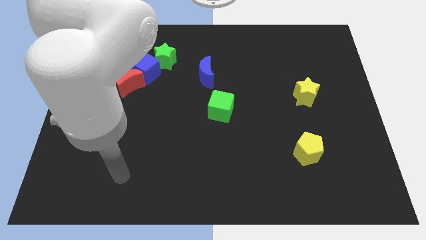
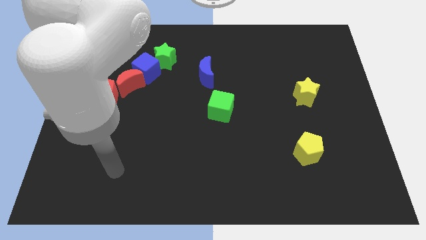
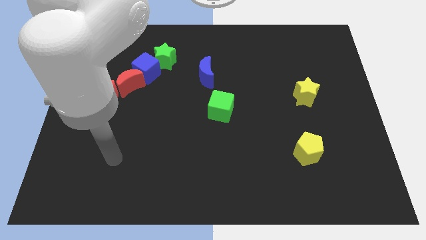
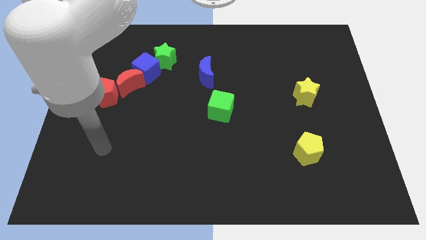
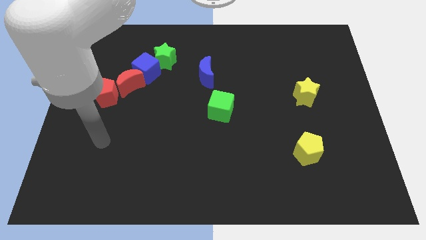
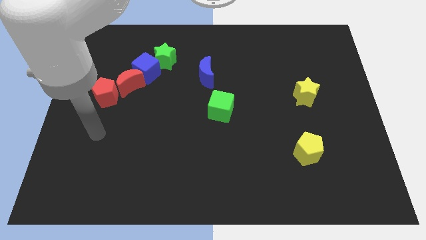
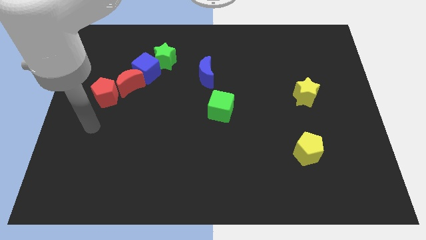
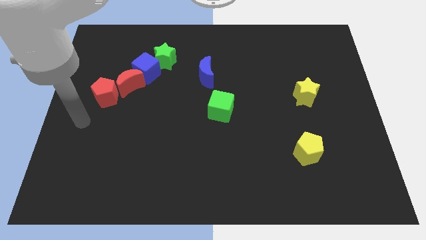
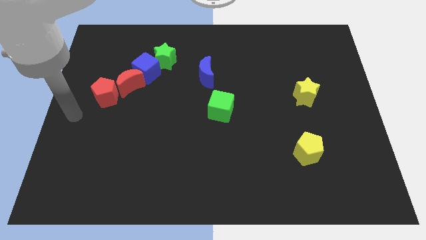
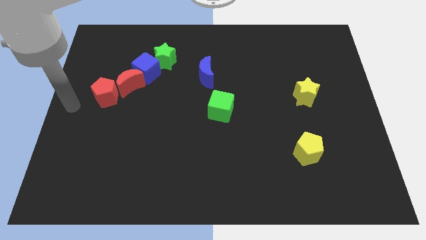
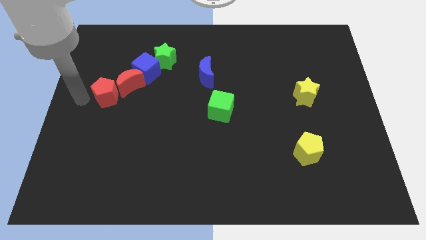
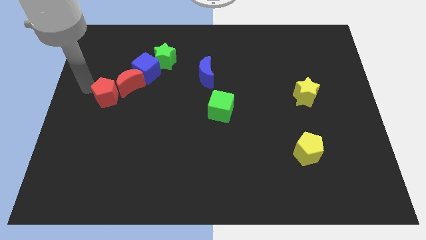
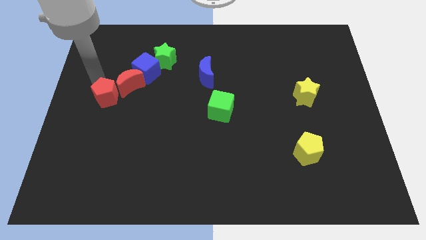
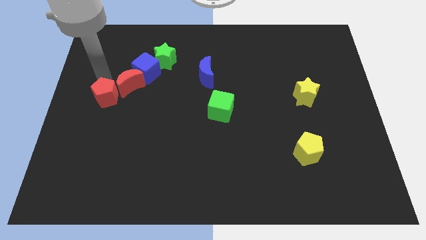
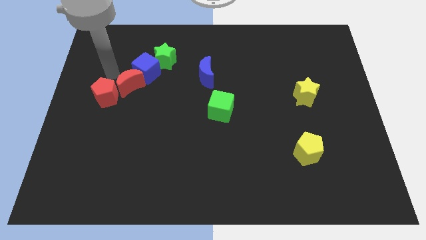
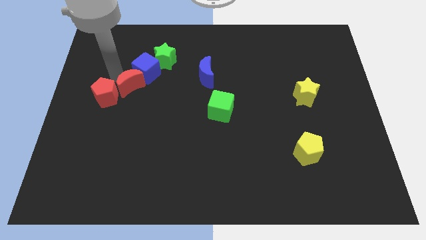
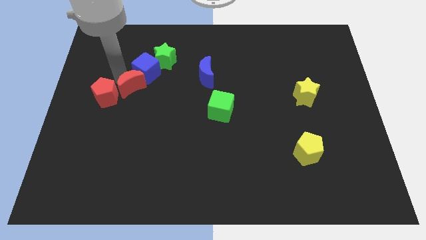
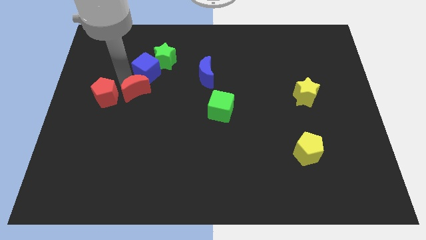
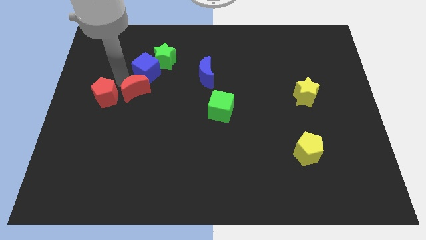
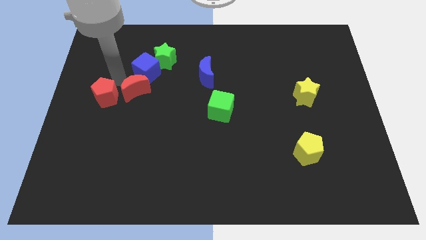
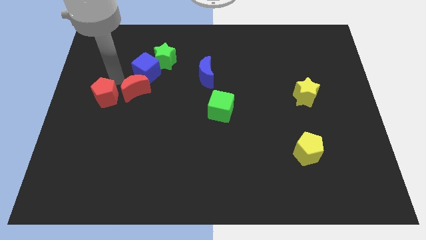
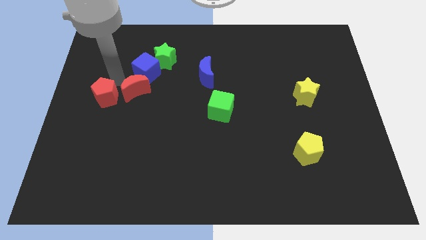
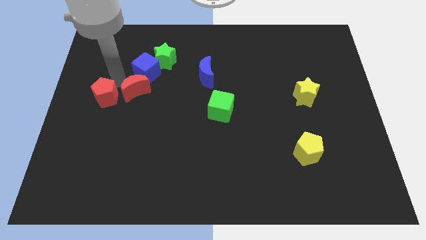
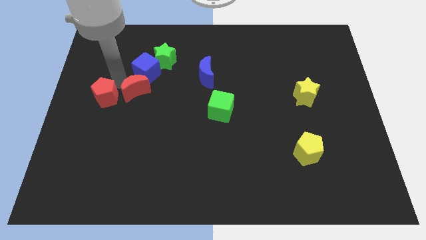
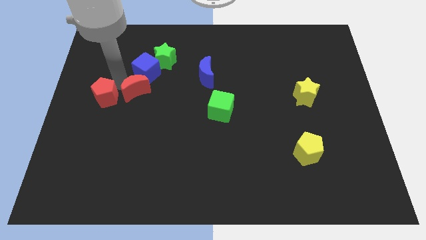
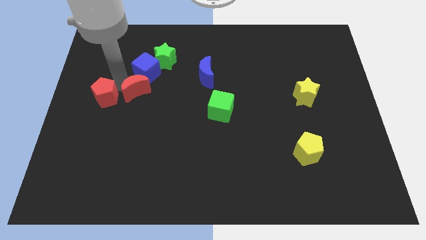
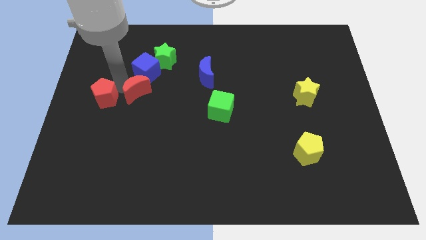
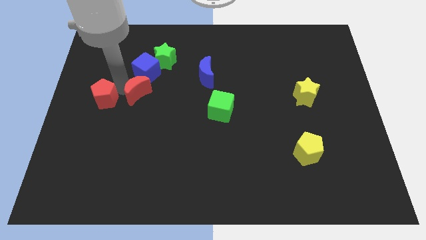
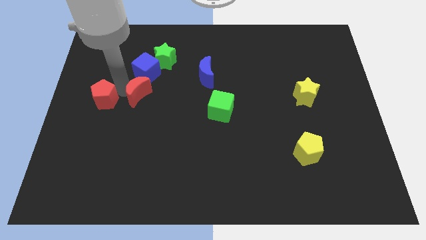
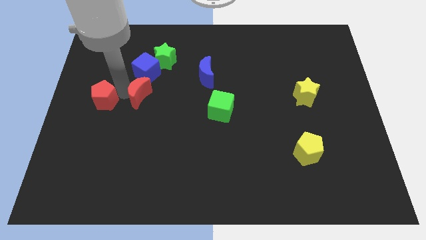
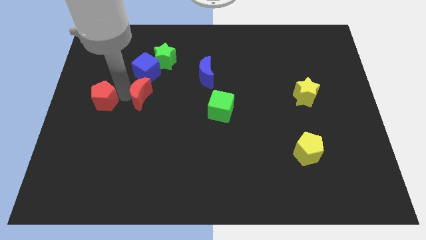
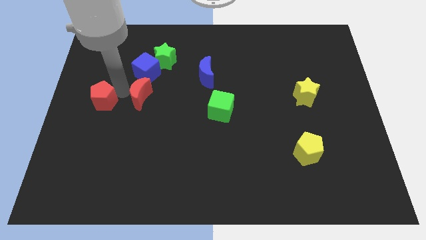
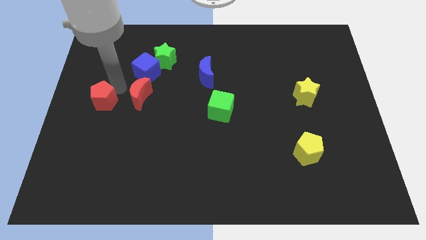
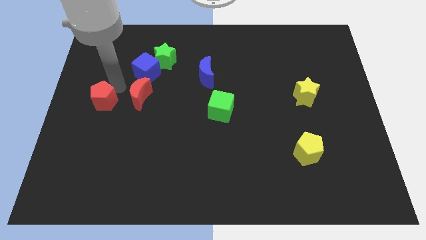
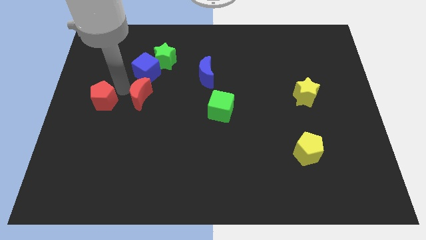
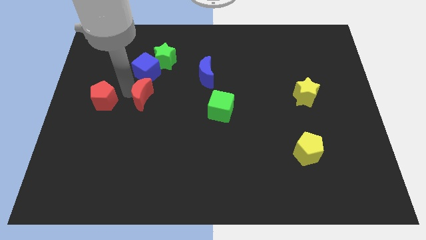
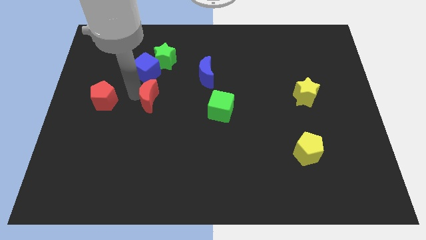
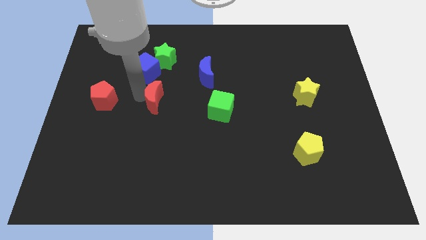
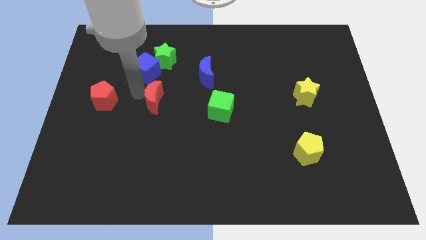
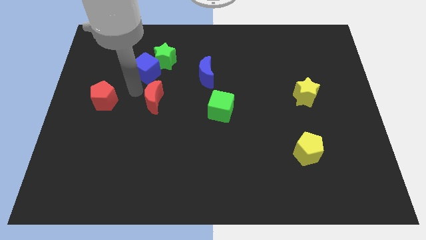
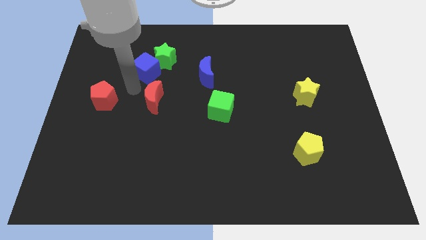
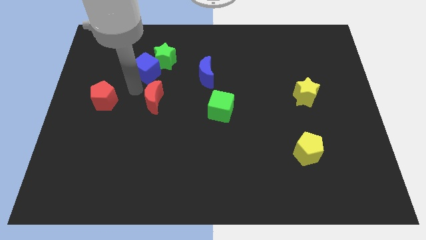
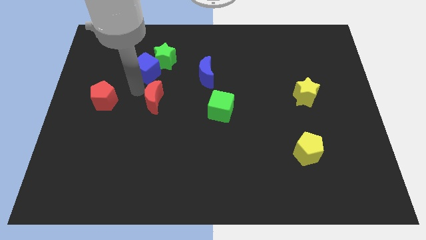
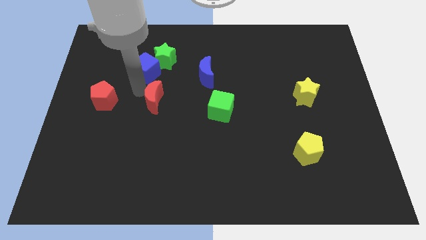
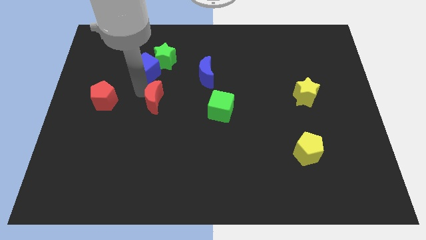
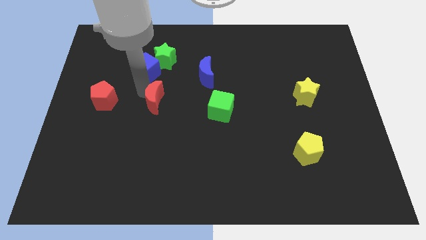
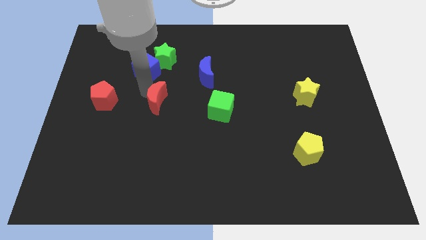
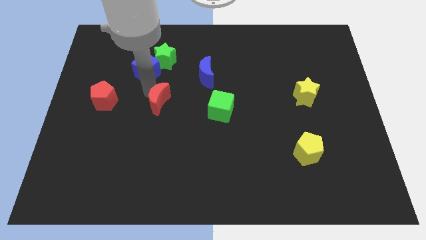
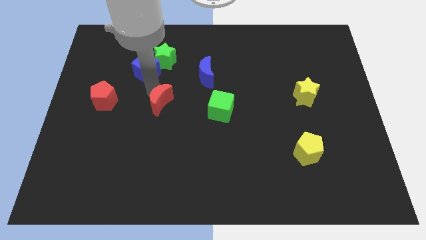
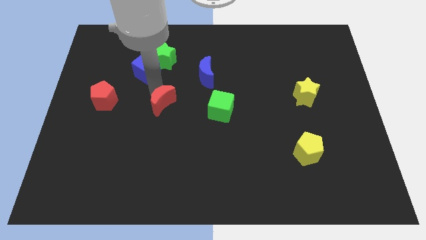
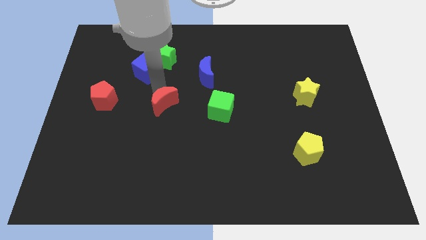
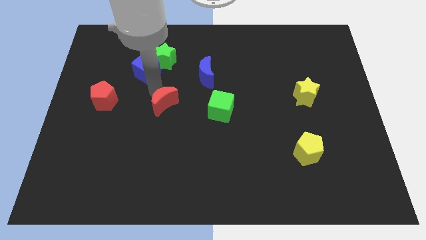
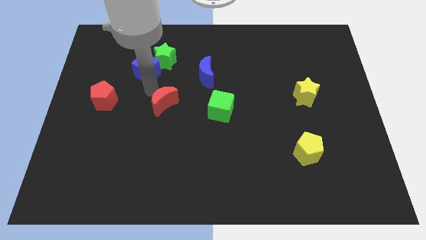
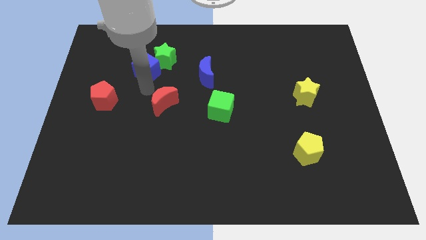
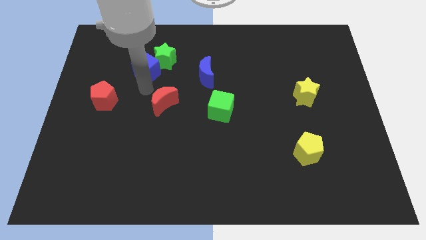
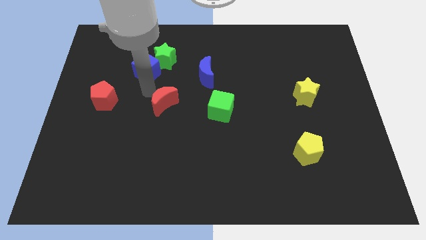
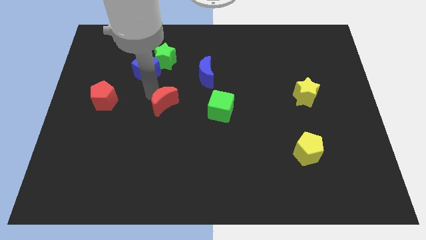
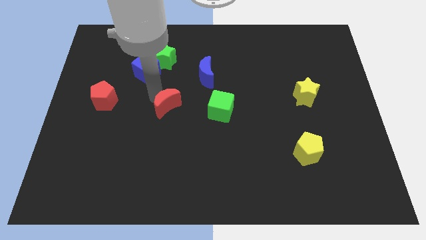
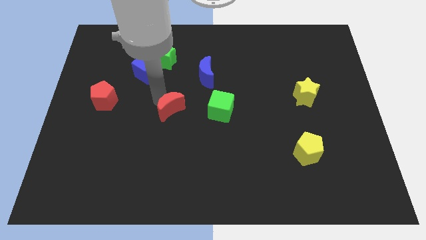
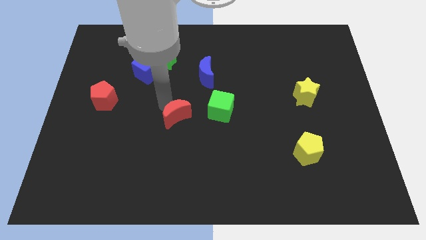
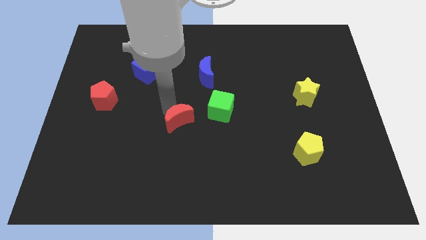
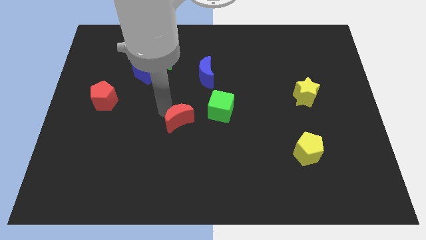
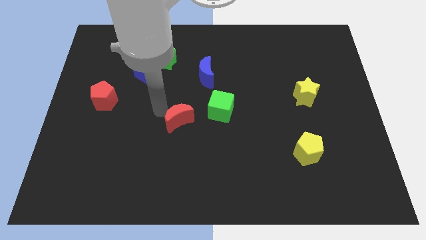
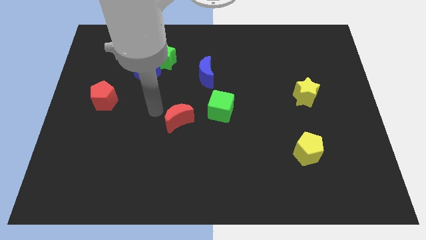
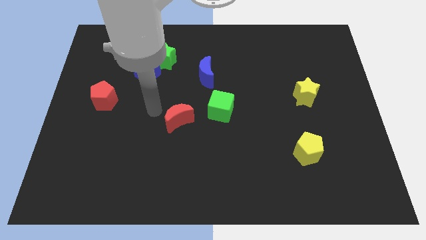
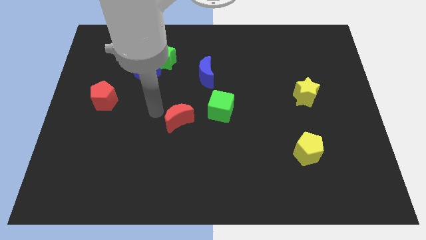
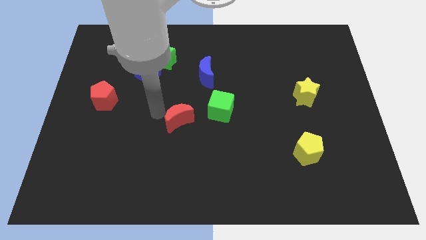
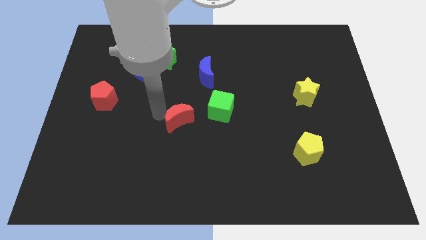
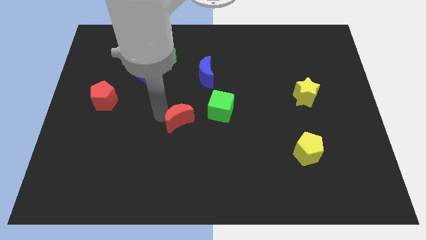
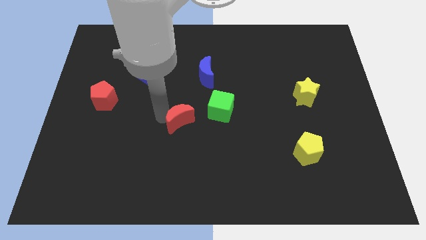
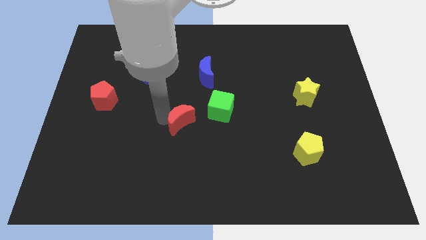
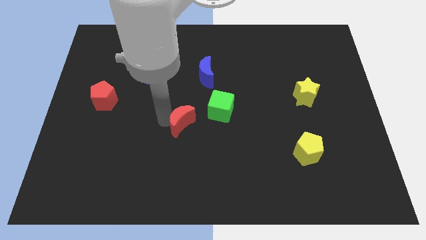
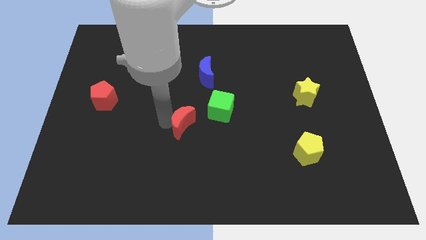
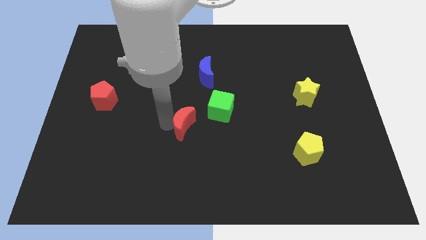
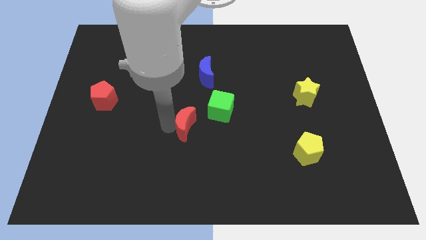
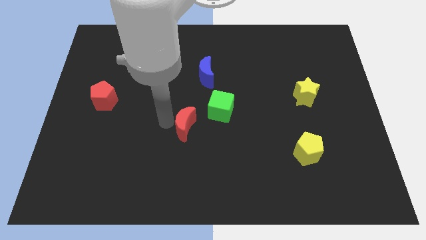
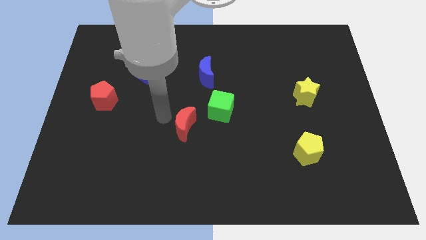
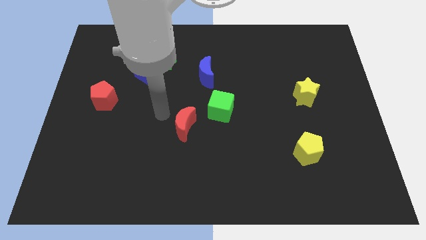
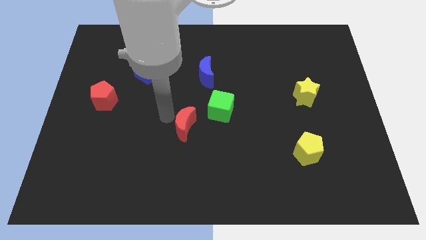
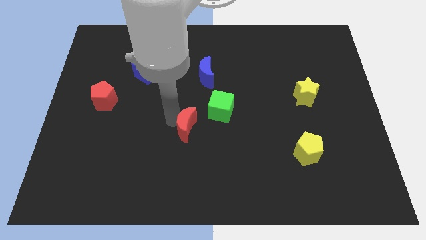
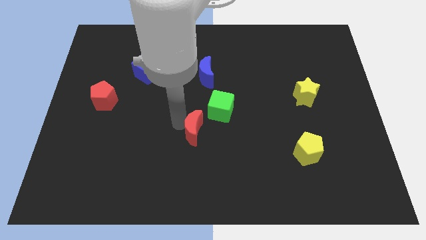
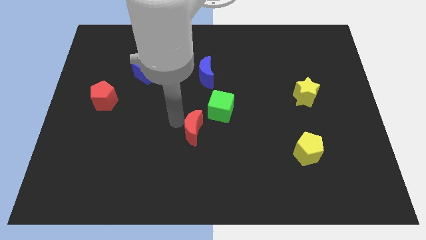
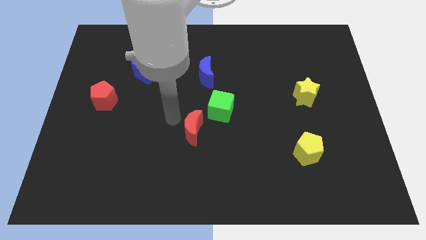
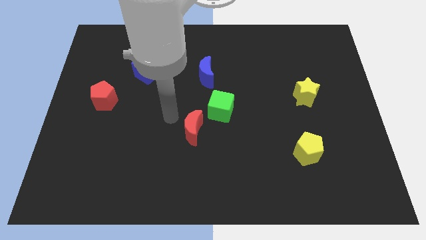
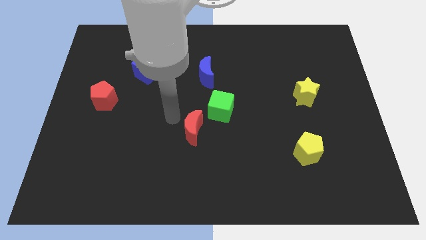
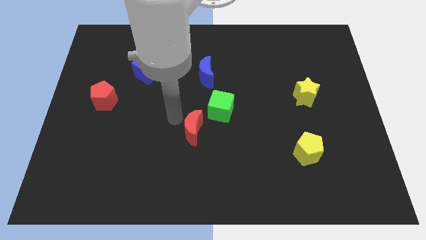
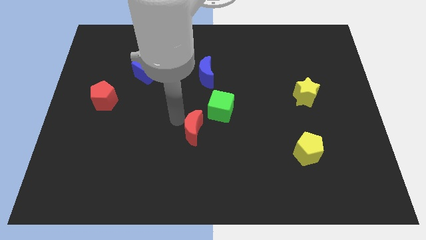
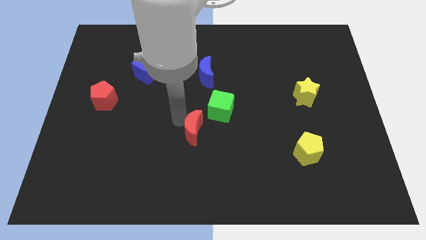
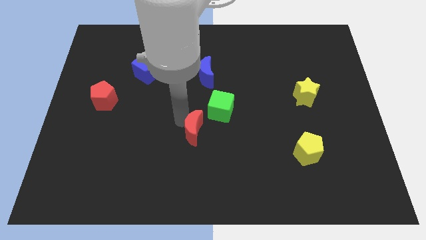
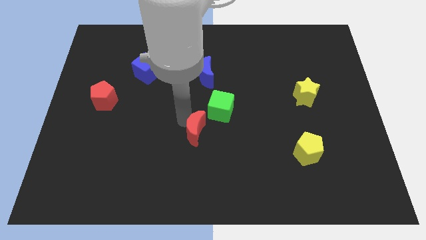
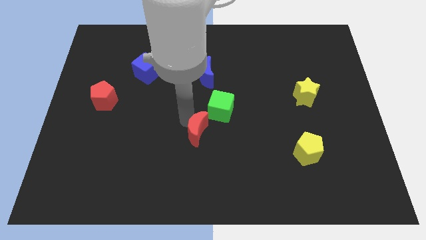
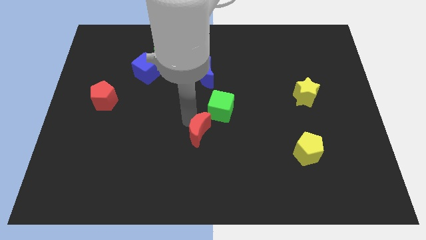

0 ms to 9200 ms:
push the red moon below the green cube
